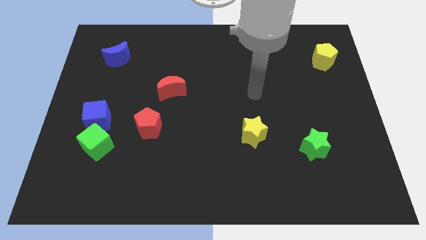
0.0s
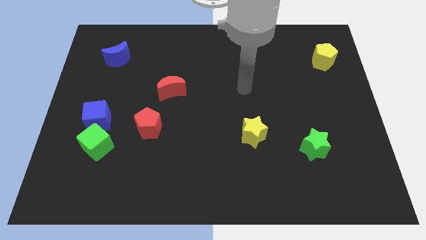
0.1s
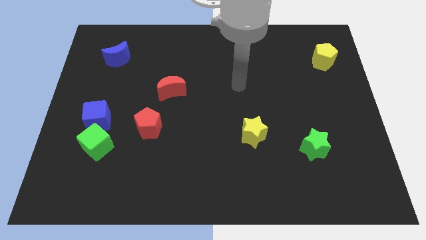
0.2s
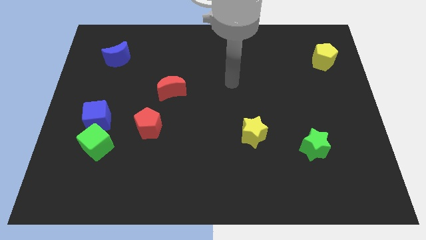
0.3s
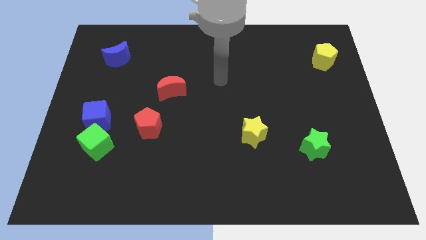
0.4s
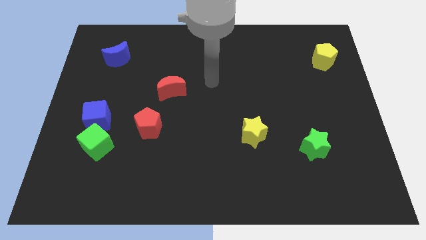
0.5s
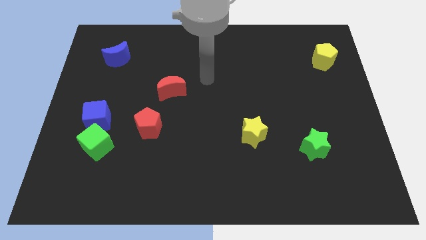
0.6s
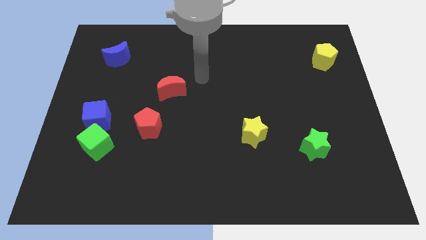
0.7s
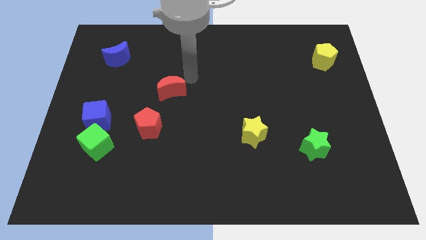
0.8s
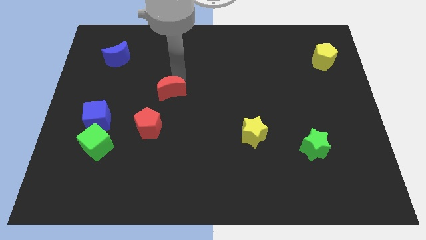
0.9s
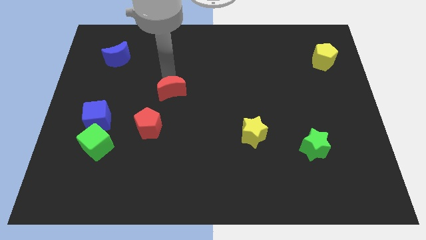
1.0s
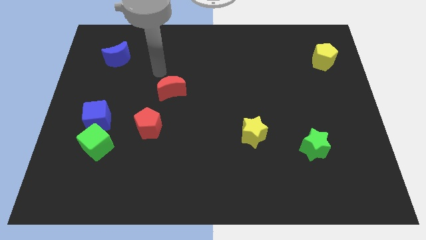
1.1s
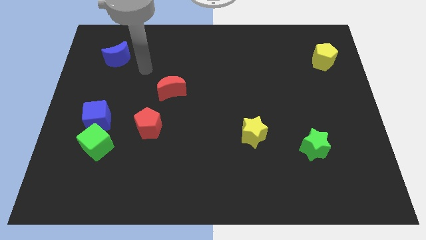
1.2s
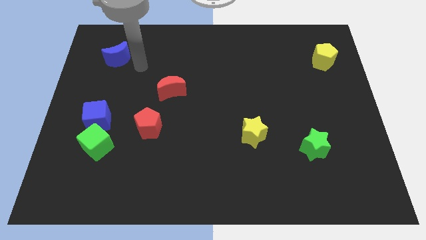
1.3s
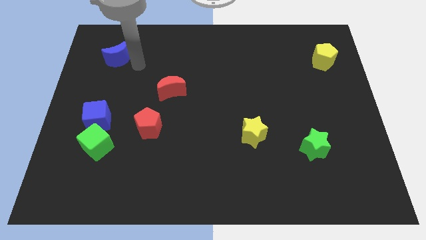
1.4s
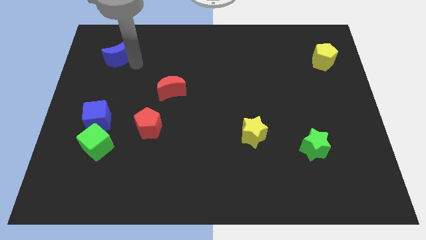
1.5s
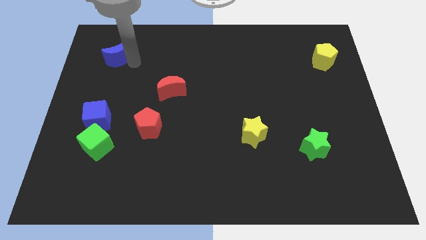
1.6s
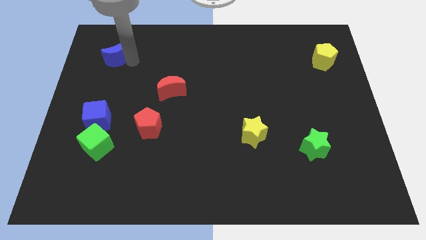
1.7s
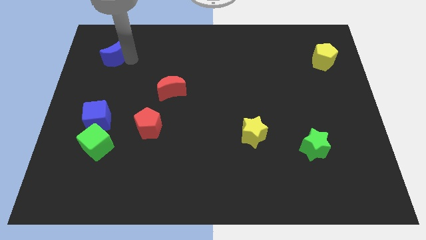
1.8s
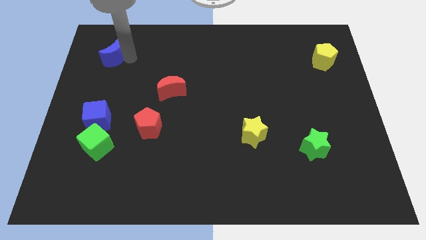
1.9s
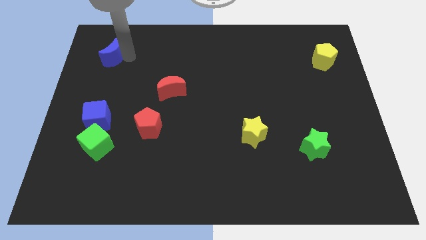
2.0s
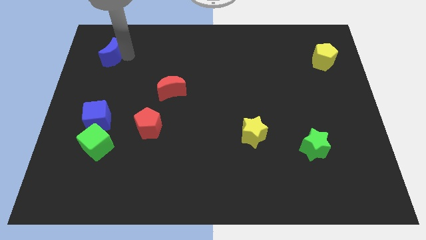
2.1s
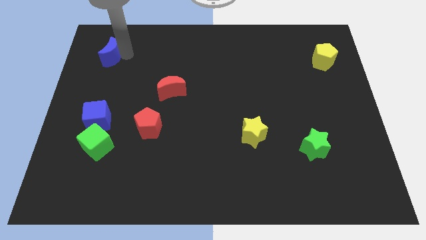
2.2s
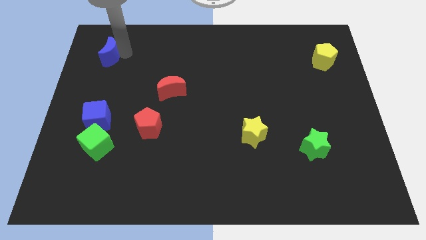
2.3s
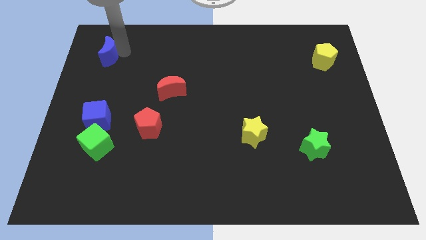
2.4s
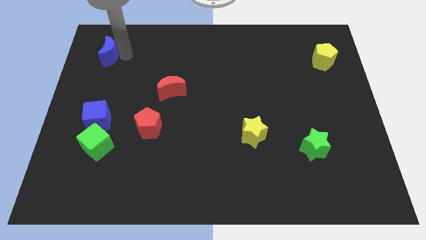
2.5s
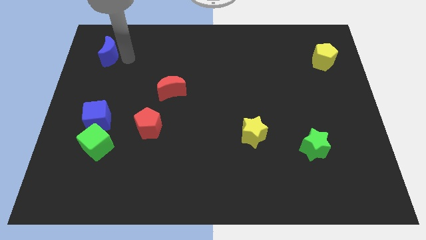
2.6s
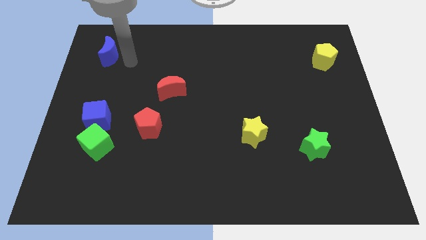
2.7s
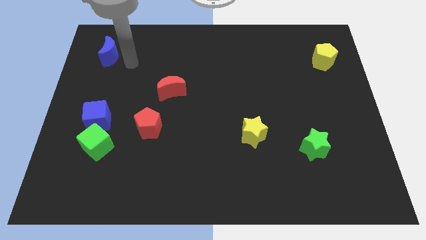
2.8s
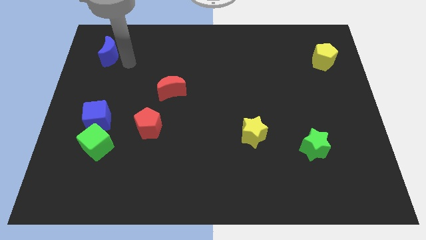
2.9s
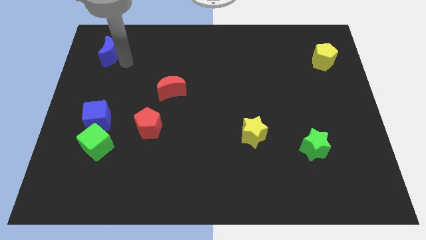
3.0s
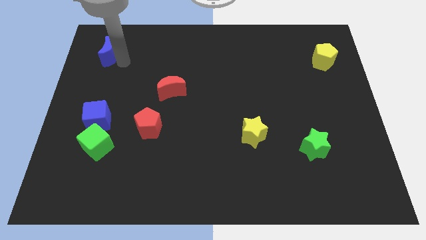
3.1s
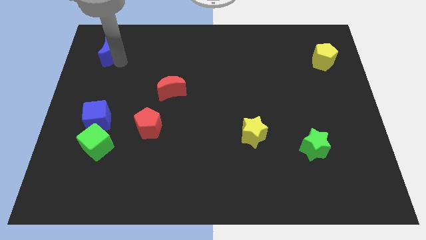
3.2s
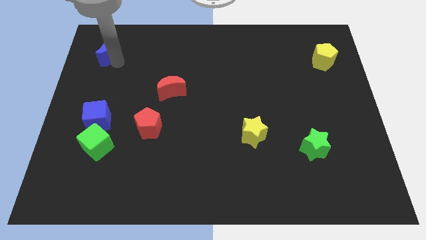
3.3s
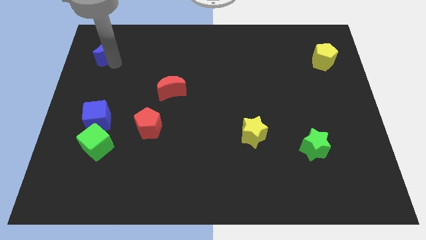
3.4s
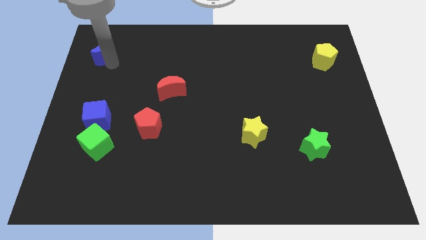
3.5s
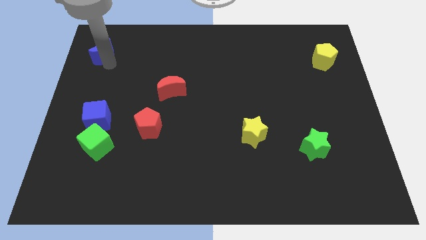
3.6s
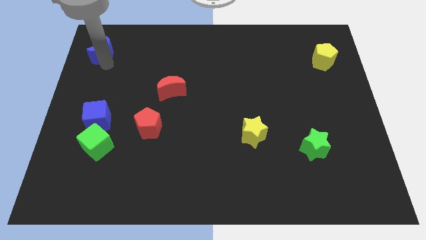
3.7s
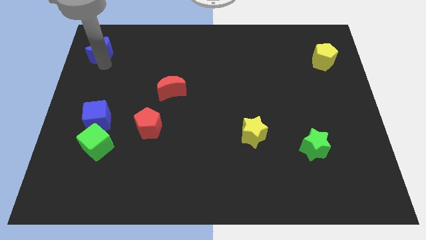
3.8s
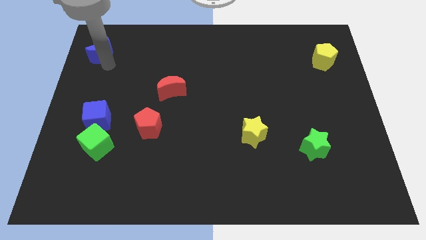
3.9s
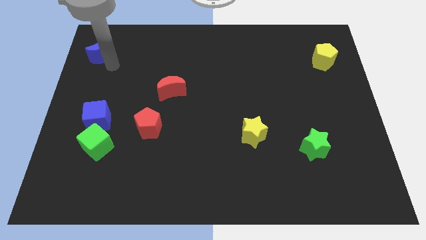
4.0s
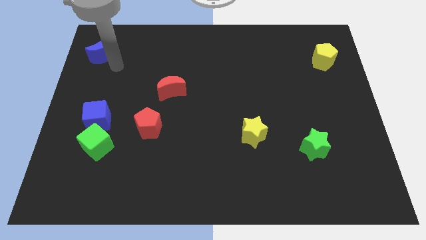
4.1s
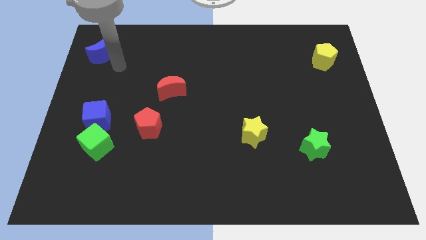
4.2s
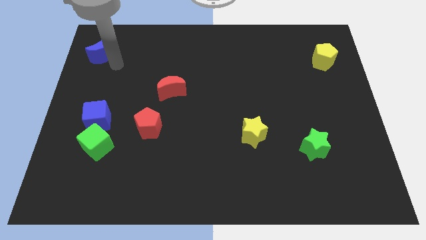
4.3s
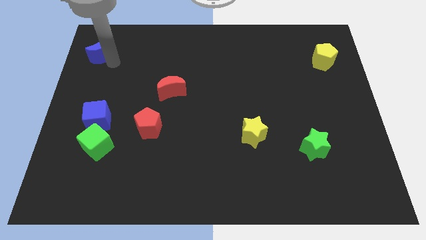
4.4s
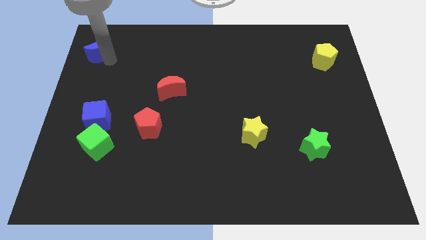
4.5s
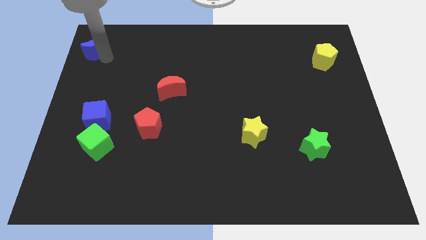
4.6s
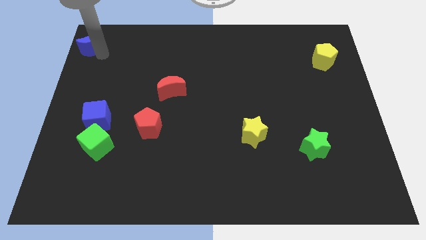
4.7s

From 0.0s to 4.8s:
put the blue moon to the top left corner

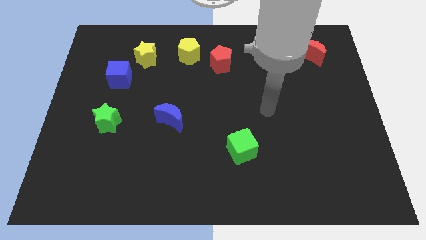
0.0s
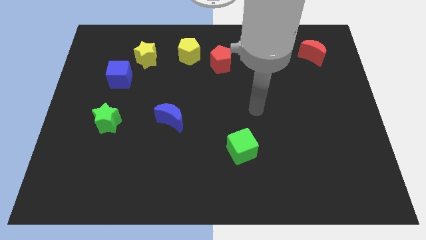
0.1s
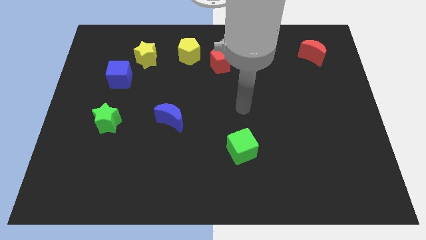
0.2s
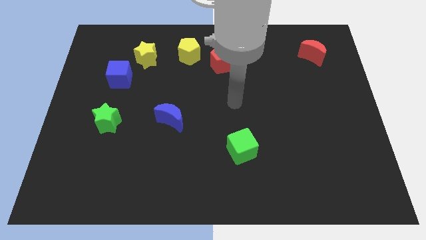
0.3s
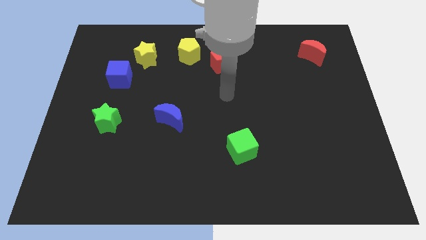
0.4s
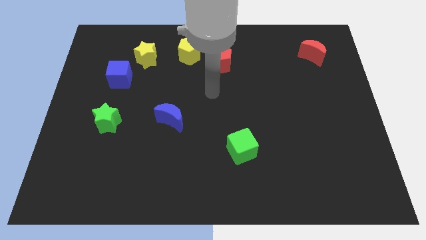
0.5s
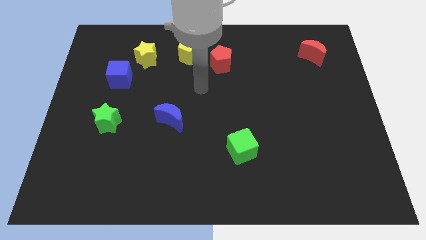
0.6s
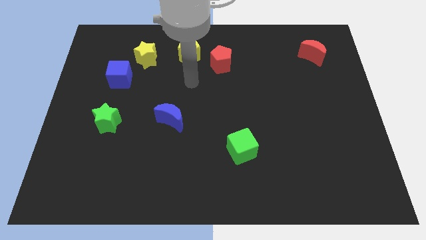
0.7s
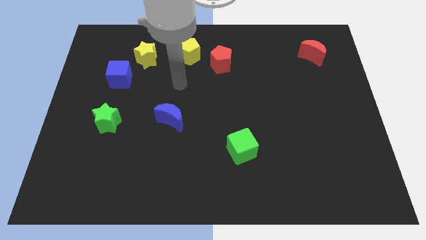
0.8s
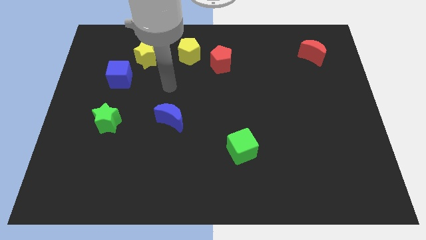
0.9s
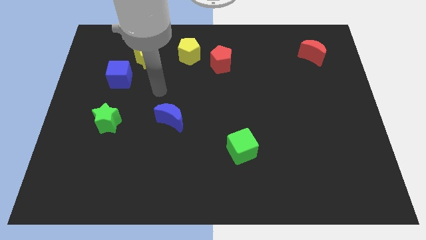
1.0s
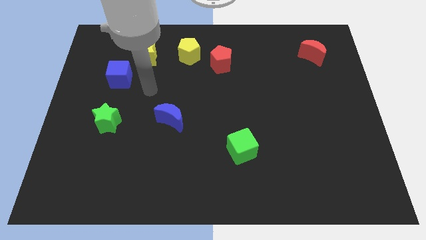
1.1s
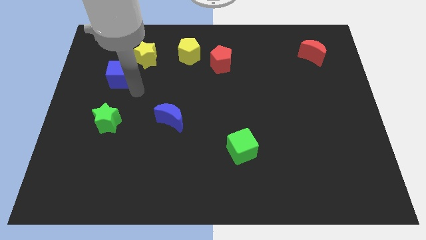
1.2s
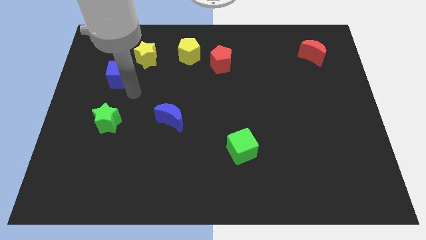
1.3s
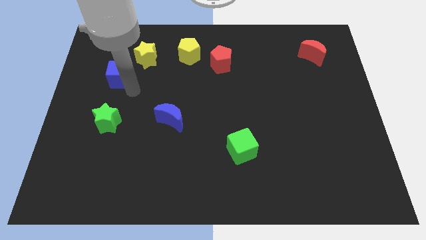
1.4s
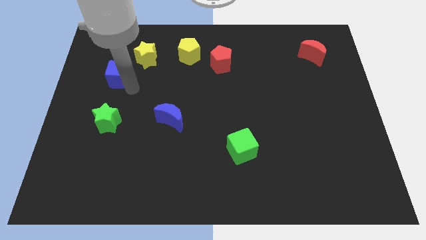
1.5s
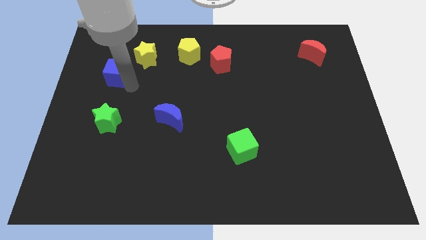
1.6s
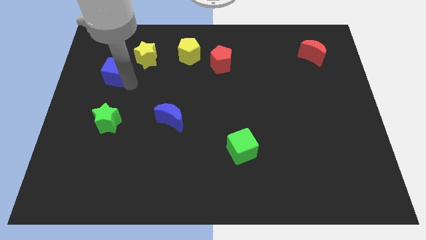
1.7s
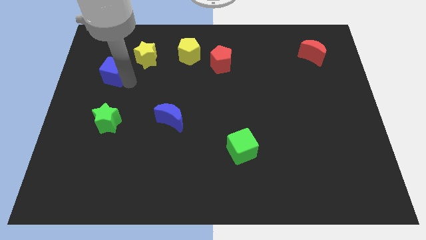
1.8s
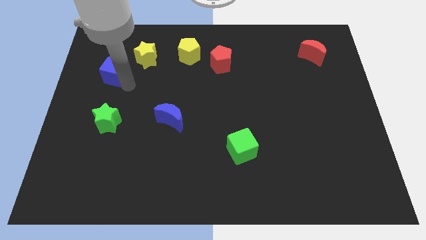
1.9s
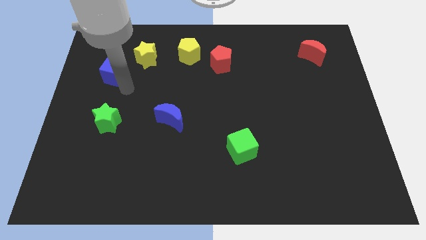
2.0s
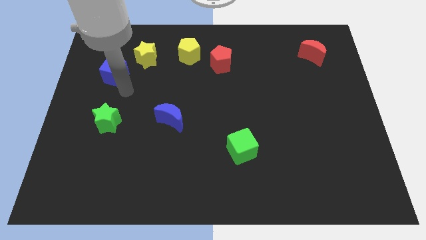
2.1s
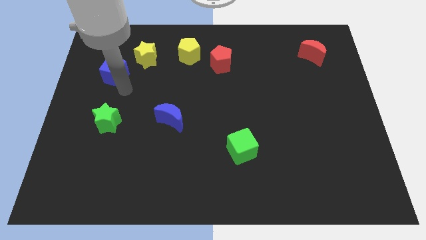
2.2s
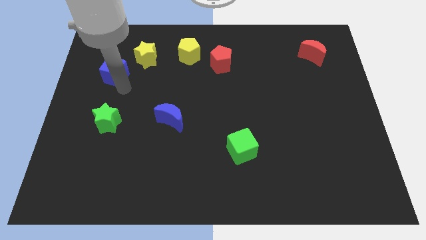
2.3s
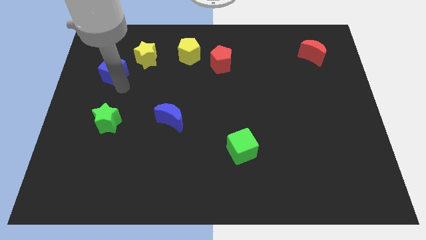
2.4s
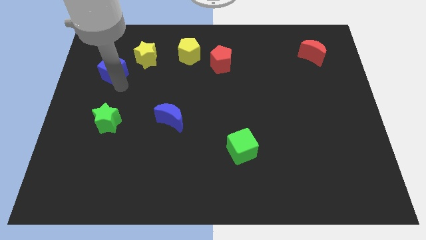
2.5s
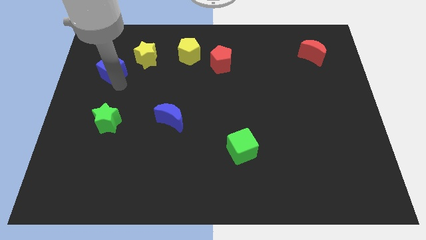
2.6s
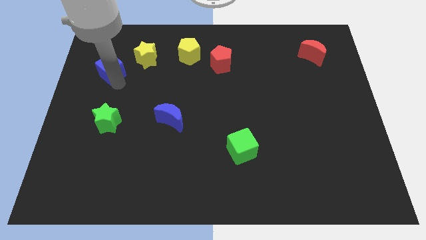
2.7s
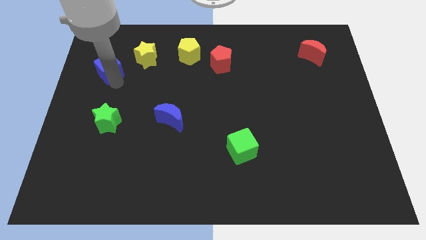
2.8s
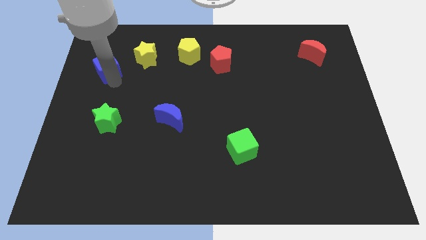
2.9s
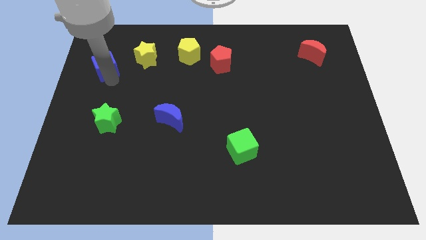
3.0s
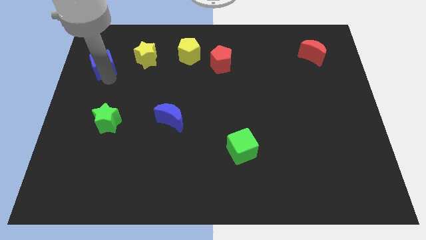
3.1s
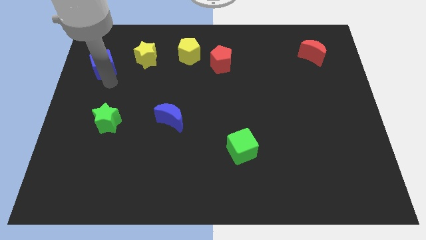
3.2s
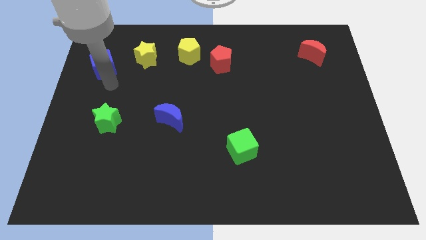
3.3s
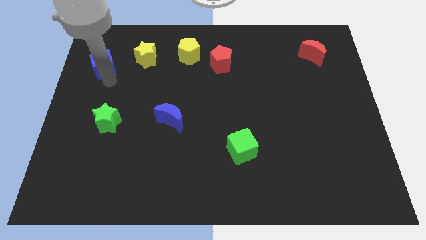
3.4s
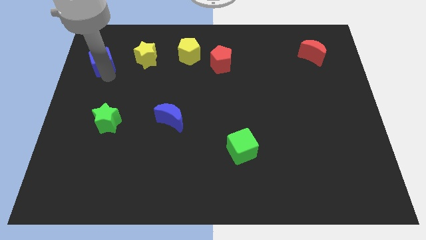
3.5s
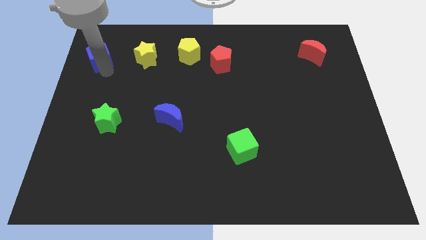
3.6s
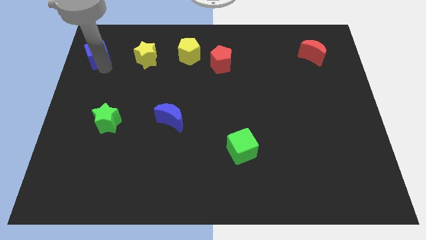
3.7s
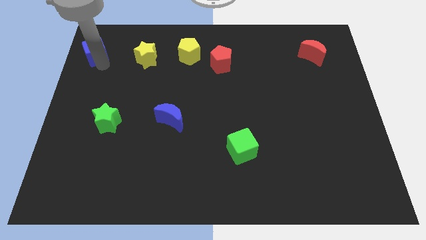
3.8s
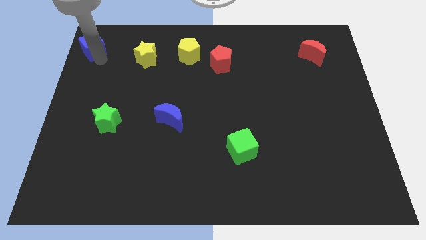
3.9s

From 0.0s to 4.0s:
slide the blue cube to the top left corner
